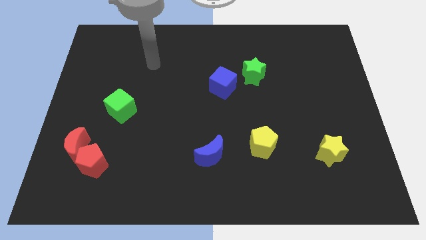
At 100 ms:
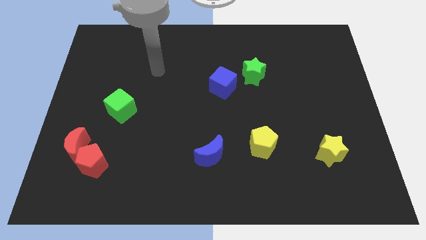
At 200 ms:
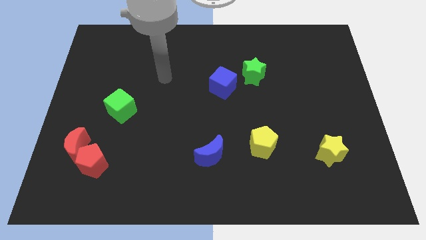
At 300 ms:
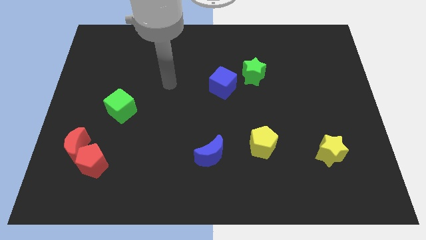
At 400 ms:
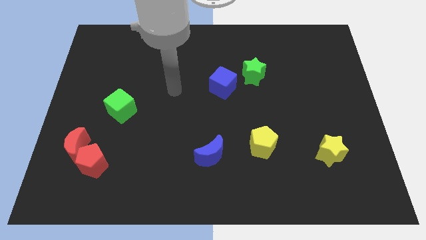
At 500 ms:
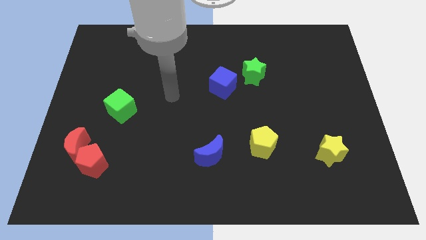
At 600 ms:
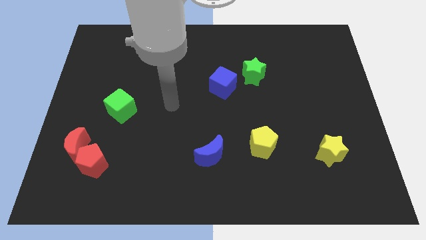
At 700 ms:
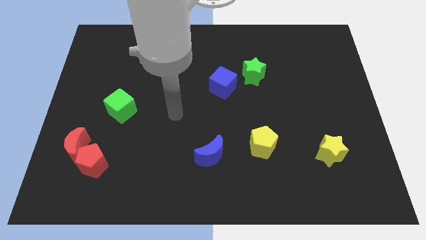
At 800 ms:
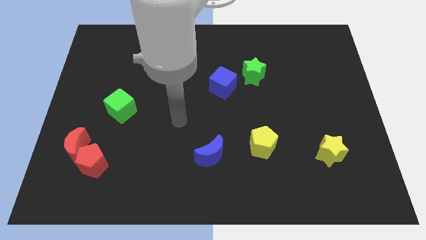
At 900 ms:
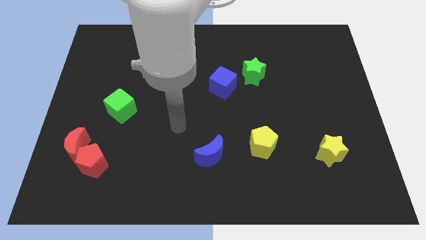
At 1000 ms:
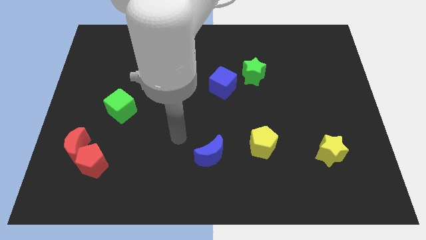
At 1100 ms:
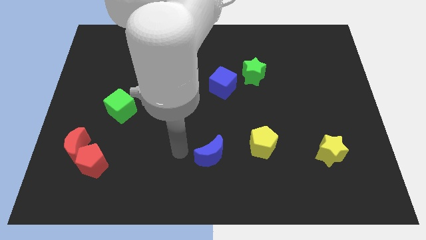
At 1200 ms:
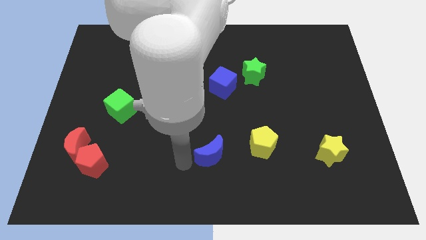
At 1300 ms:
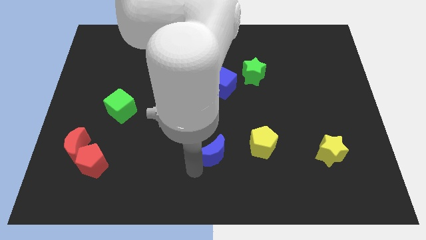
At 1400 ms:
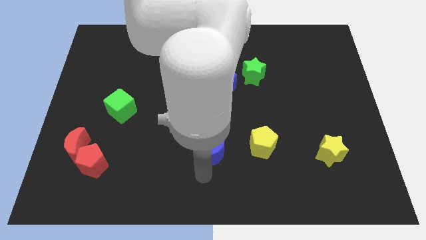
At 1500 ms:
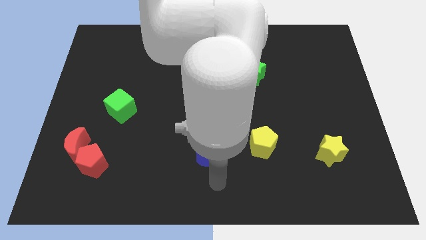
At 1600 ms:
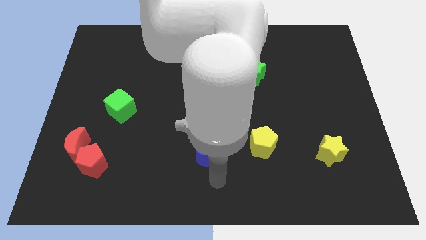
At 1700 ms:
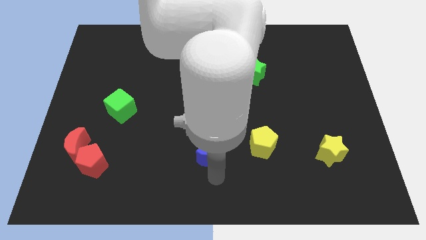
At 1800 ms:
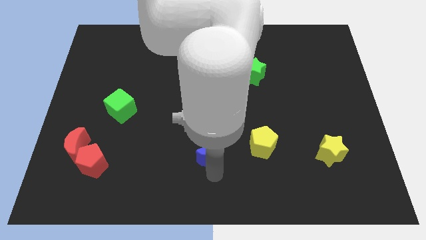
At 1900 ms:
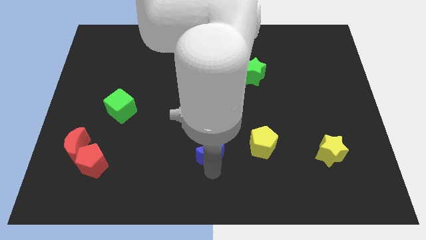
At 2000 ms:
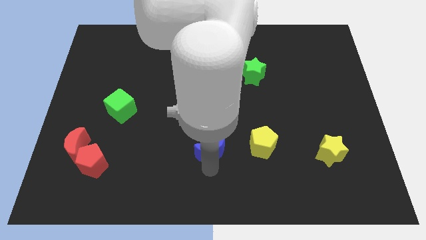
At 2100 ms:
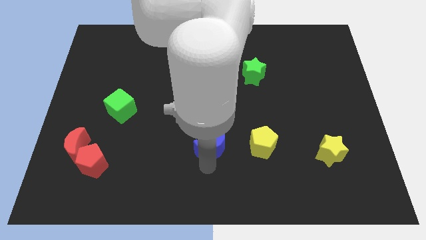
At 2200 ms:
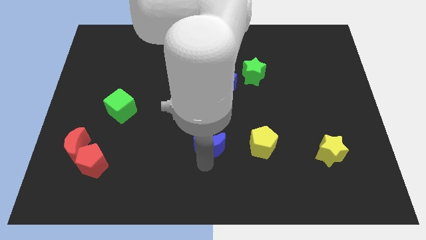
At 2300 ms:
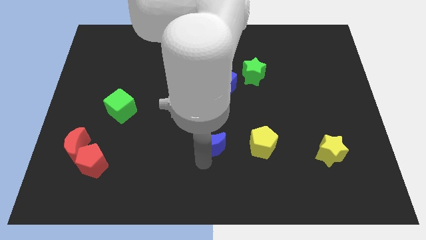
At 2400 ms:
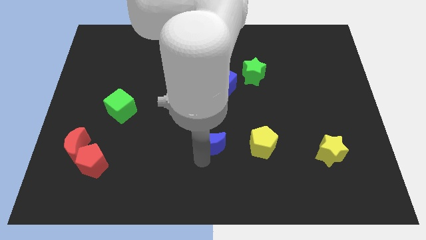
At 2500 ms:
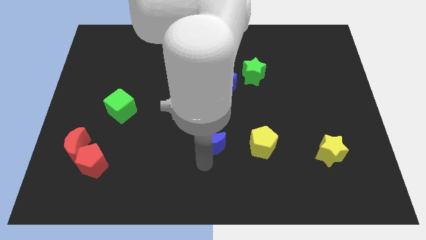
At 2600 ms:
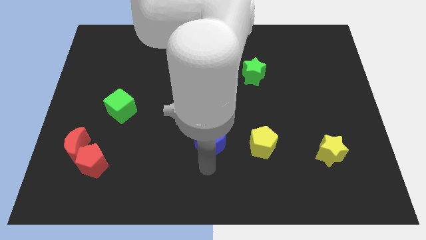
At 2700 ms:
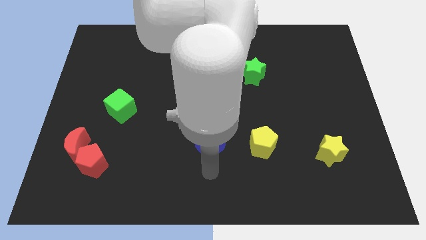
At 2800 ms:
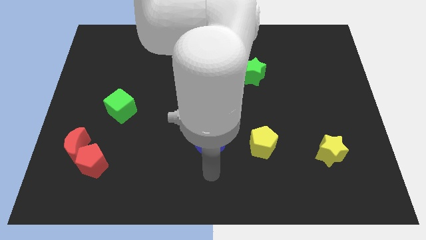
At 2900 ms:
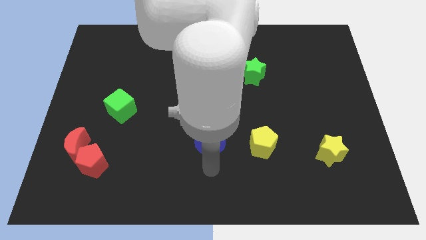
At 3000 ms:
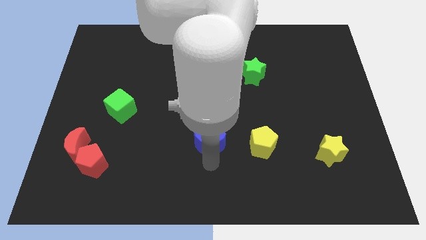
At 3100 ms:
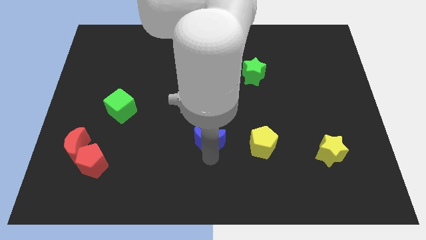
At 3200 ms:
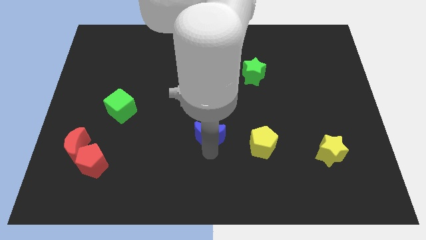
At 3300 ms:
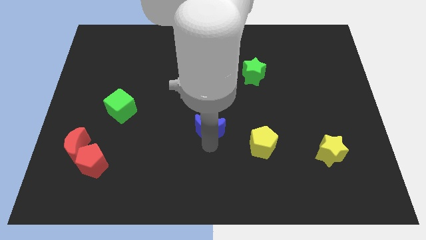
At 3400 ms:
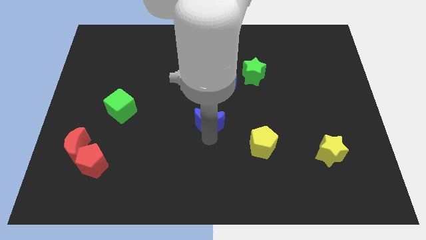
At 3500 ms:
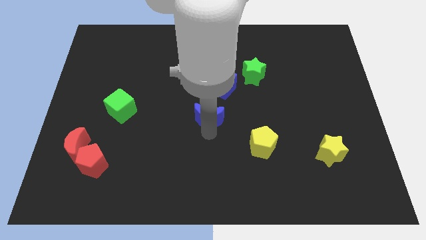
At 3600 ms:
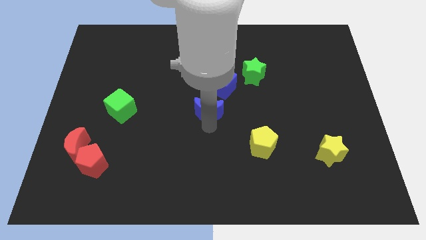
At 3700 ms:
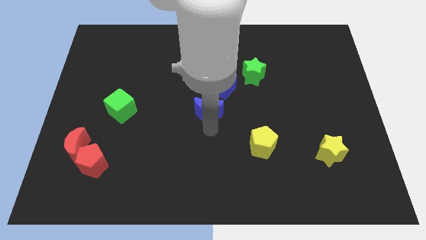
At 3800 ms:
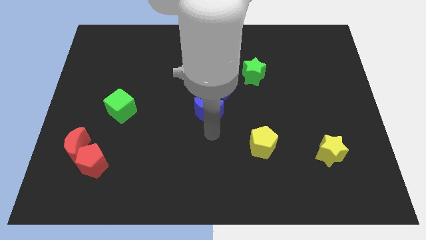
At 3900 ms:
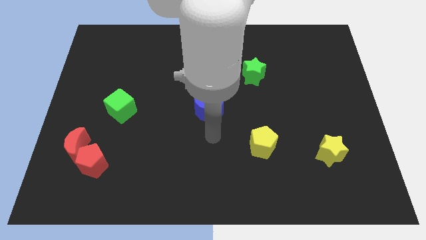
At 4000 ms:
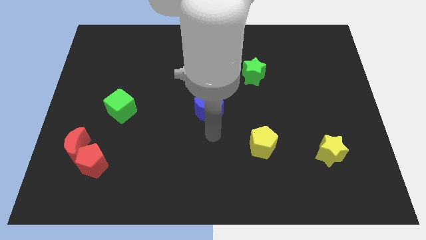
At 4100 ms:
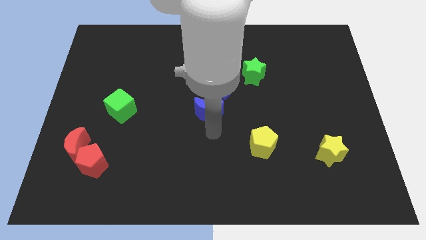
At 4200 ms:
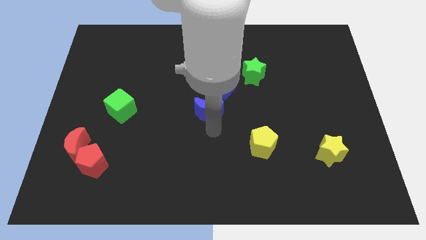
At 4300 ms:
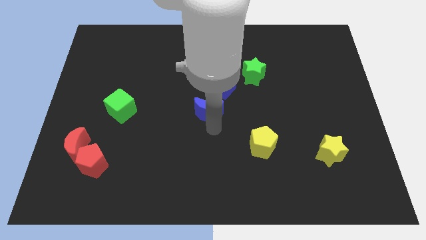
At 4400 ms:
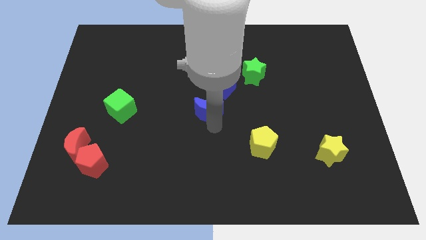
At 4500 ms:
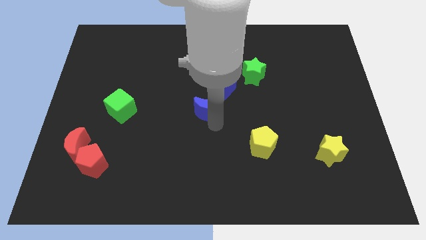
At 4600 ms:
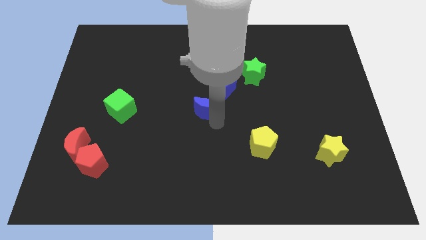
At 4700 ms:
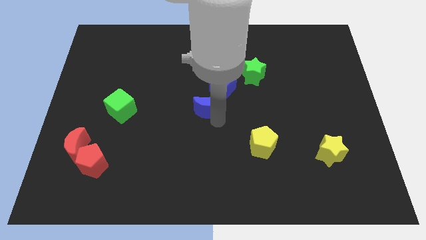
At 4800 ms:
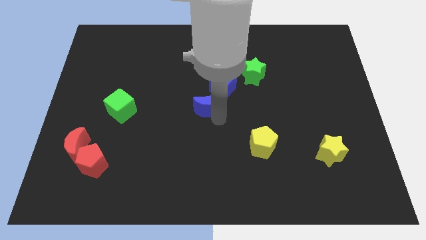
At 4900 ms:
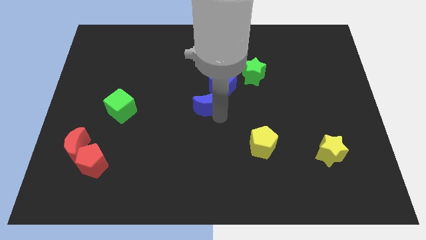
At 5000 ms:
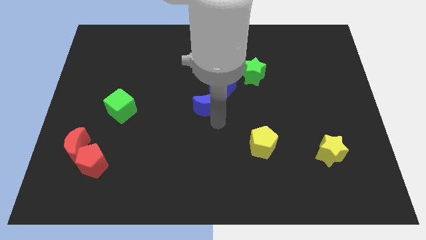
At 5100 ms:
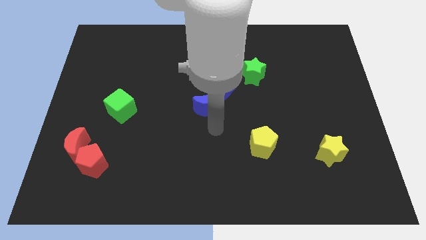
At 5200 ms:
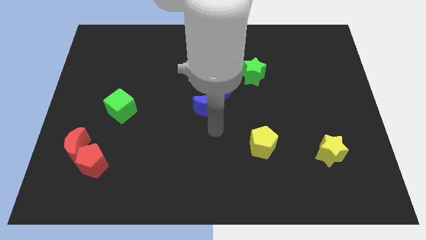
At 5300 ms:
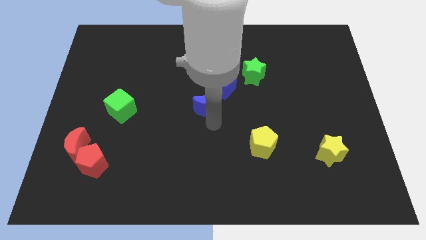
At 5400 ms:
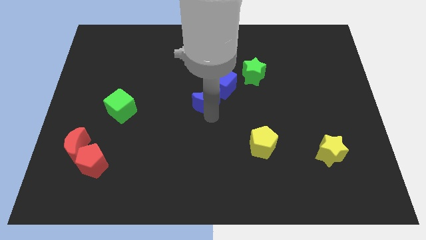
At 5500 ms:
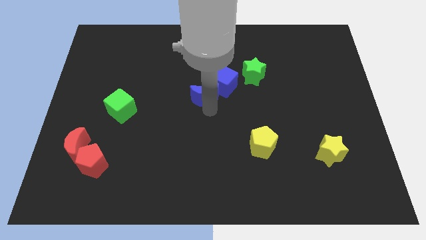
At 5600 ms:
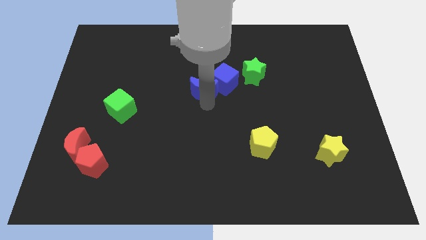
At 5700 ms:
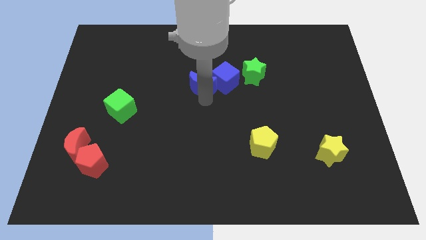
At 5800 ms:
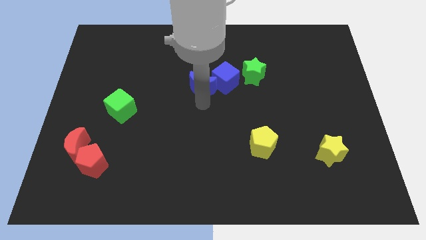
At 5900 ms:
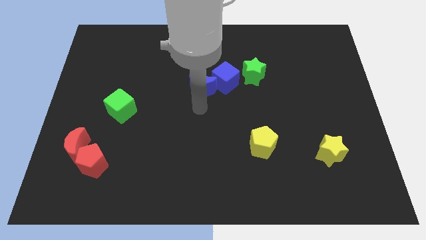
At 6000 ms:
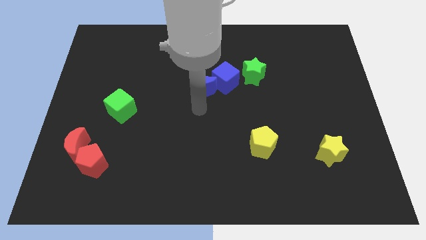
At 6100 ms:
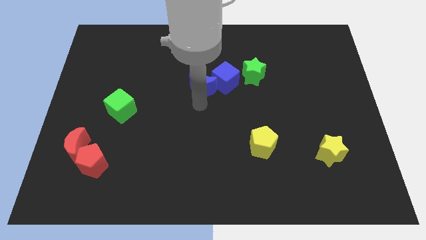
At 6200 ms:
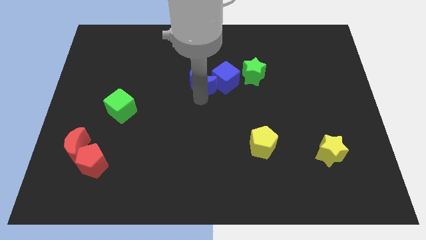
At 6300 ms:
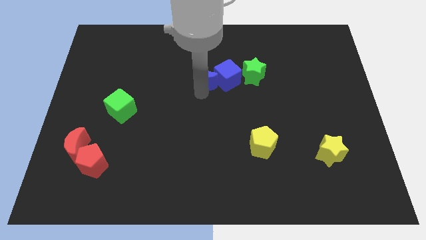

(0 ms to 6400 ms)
push the blue moon diagonally up and to the left of the blue cube

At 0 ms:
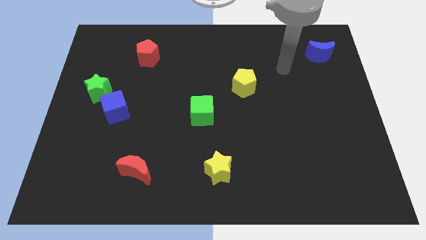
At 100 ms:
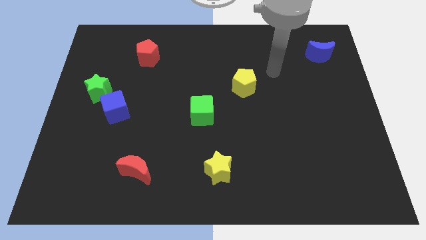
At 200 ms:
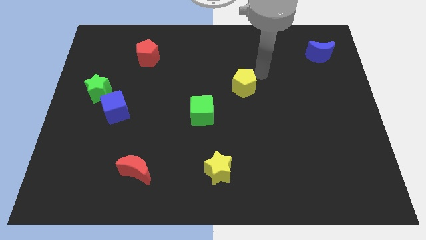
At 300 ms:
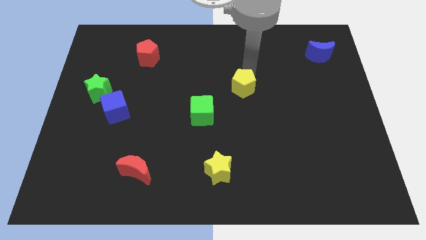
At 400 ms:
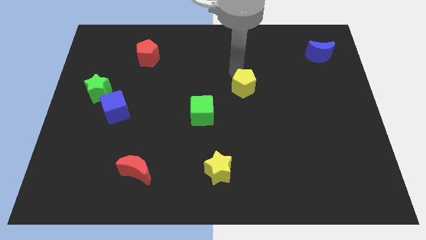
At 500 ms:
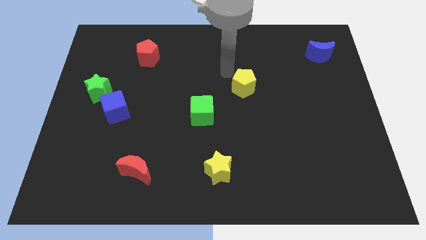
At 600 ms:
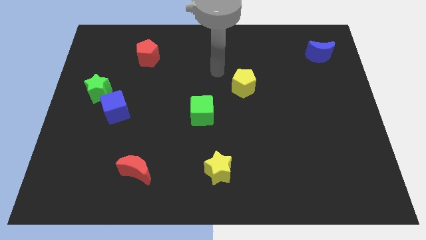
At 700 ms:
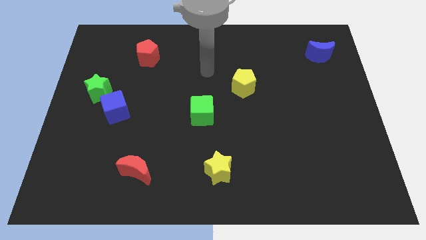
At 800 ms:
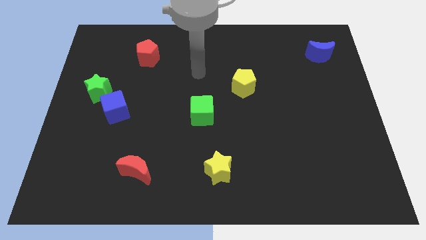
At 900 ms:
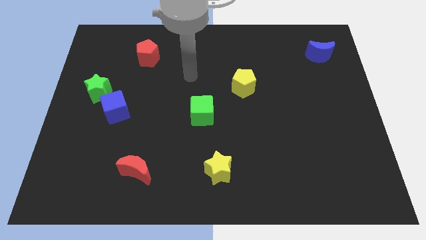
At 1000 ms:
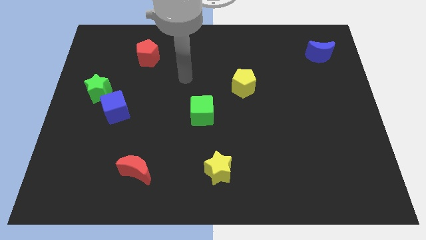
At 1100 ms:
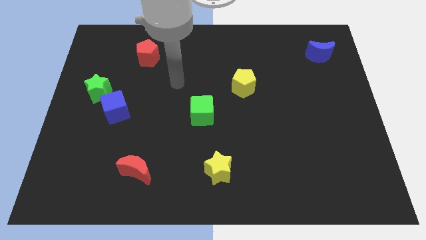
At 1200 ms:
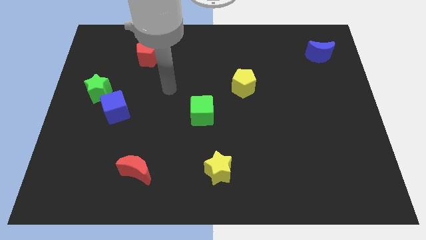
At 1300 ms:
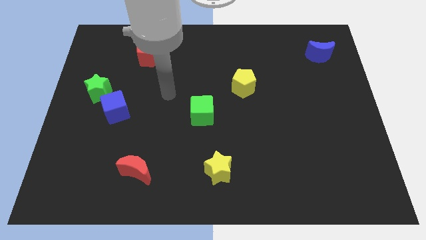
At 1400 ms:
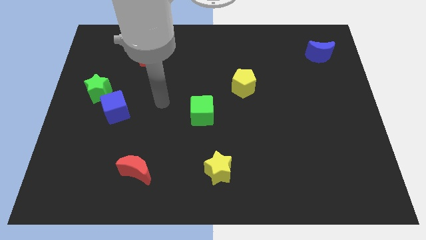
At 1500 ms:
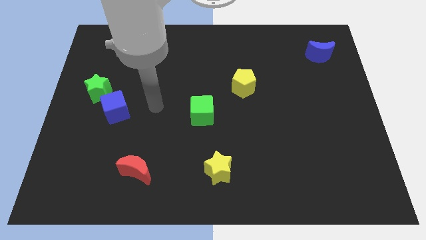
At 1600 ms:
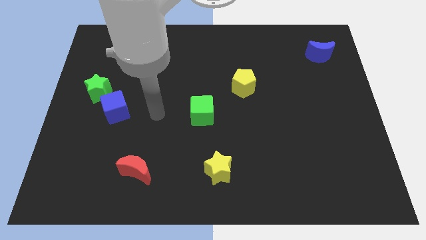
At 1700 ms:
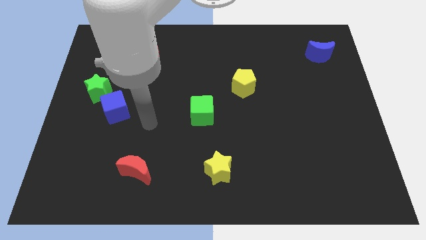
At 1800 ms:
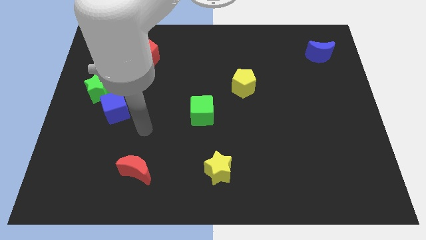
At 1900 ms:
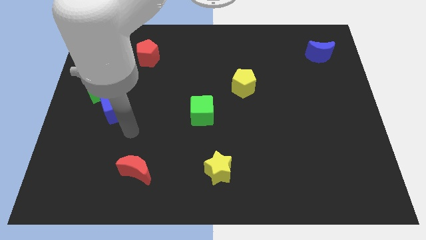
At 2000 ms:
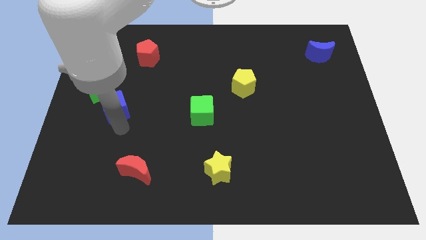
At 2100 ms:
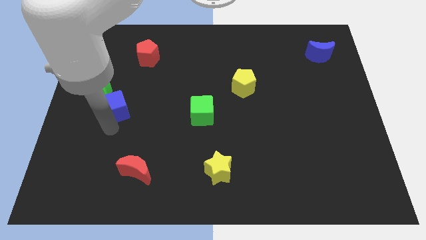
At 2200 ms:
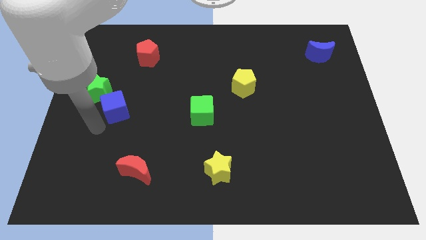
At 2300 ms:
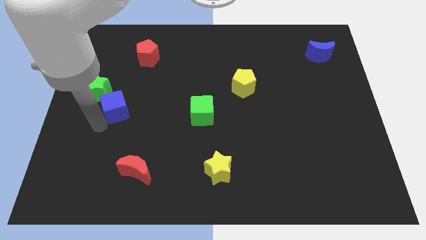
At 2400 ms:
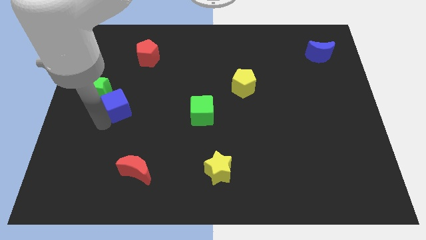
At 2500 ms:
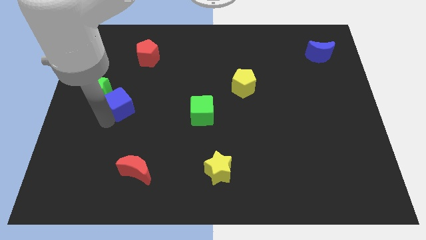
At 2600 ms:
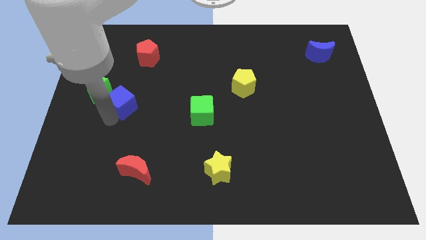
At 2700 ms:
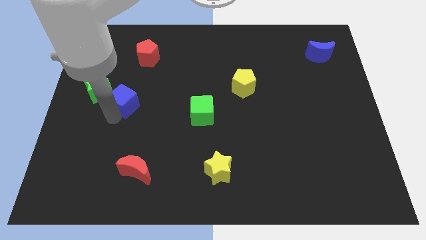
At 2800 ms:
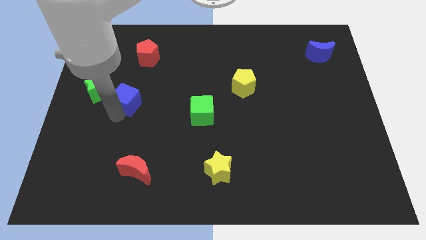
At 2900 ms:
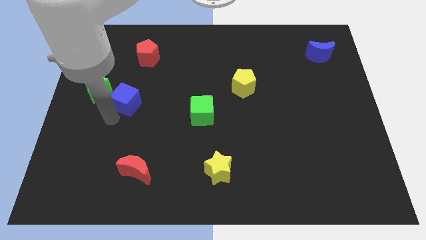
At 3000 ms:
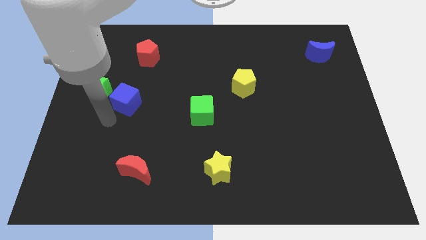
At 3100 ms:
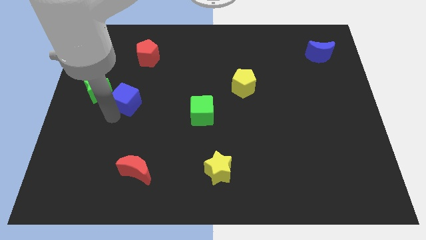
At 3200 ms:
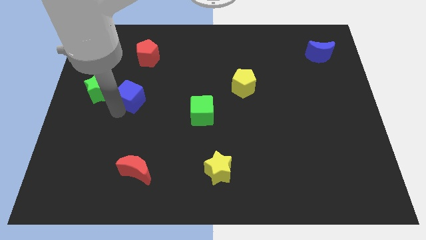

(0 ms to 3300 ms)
push the blue cube below the red pentagon
